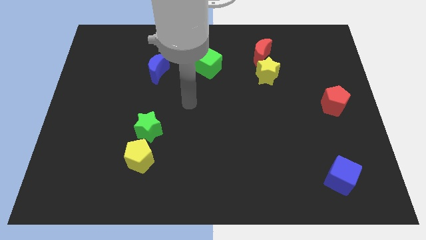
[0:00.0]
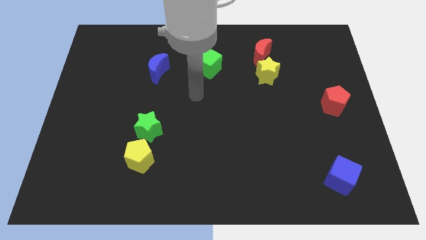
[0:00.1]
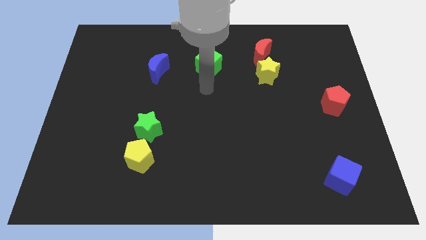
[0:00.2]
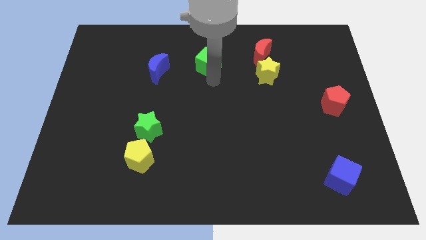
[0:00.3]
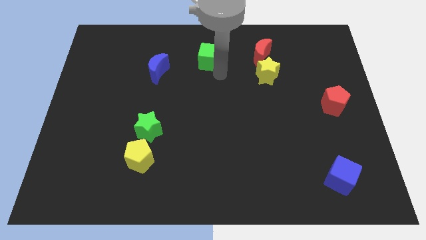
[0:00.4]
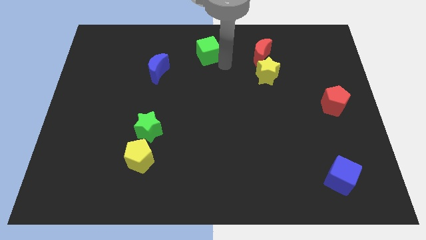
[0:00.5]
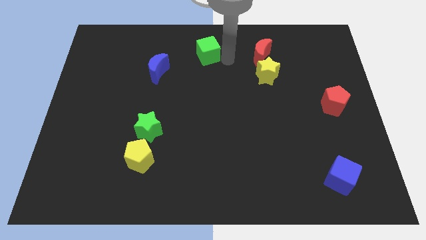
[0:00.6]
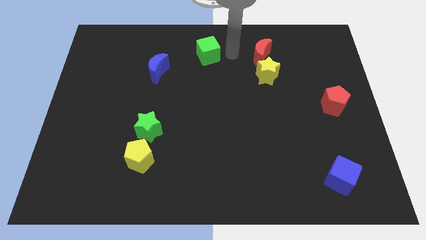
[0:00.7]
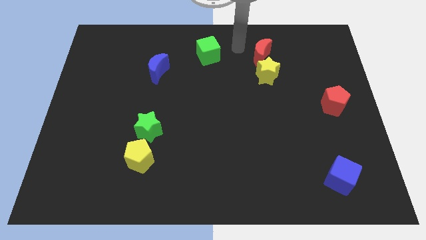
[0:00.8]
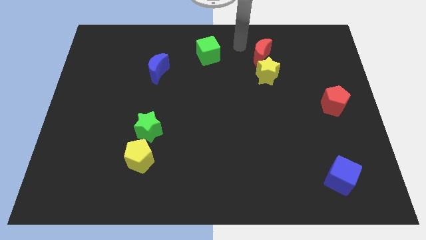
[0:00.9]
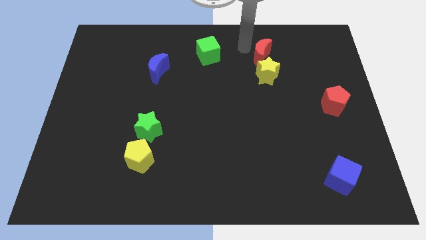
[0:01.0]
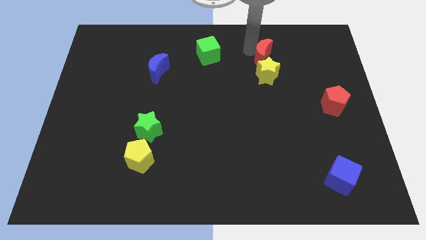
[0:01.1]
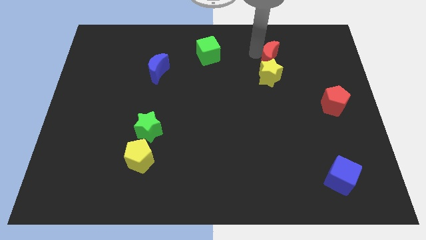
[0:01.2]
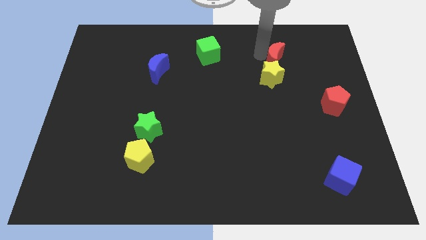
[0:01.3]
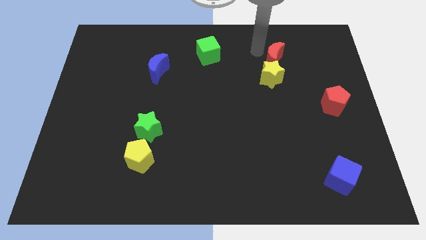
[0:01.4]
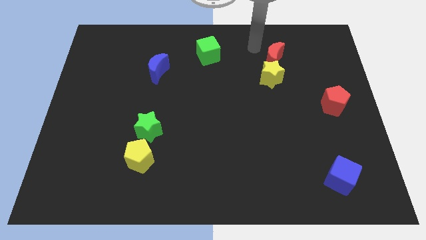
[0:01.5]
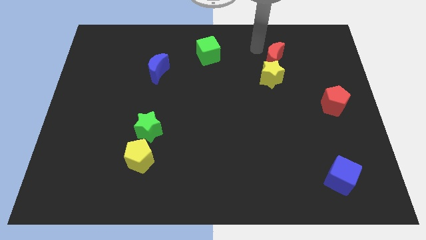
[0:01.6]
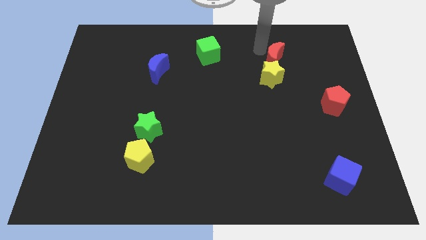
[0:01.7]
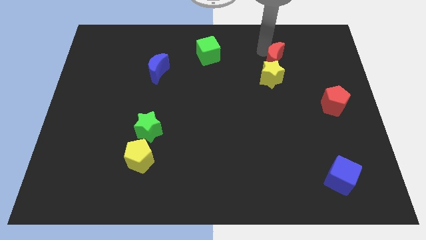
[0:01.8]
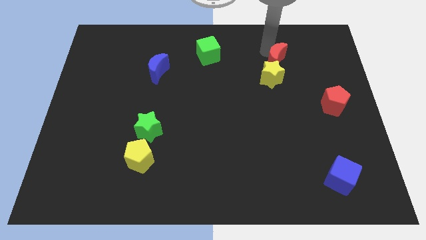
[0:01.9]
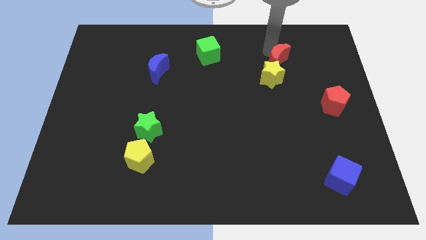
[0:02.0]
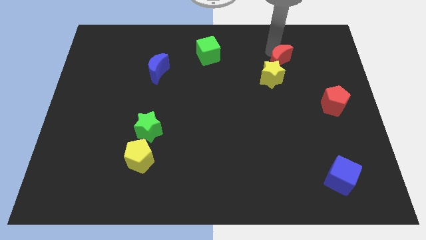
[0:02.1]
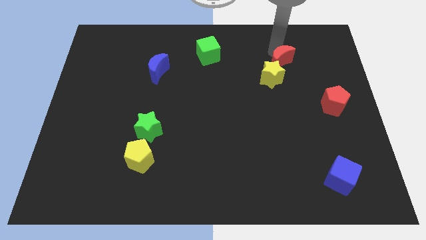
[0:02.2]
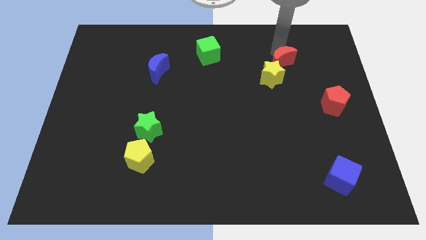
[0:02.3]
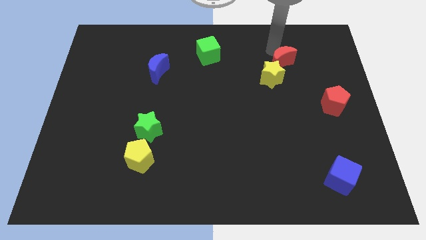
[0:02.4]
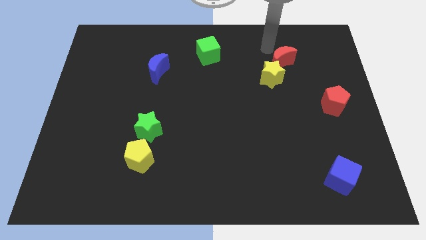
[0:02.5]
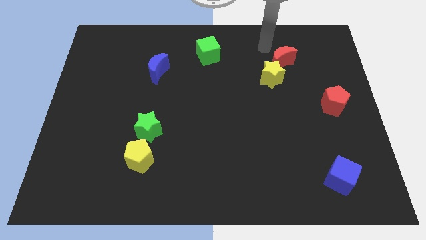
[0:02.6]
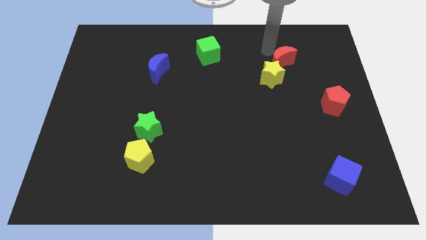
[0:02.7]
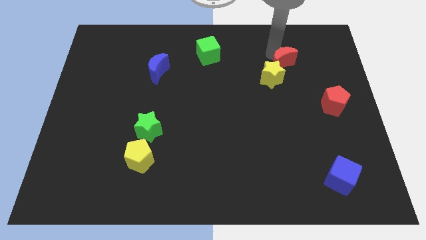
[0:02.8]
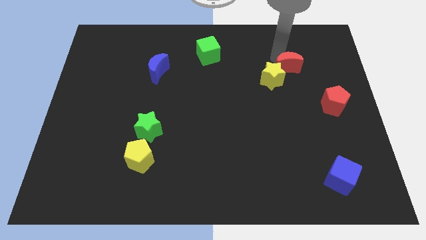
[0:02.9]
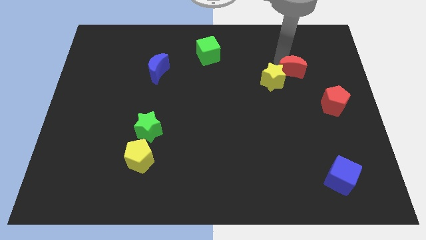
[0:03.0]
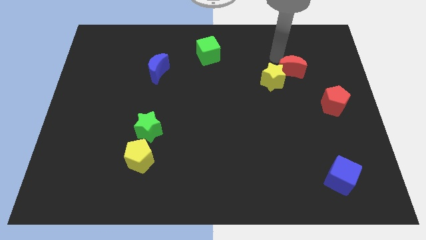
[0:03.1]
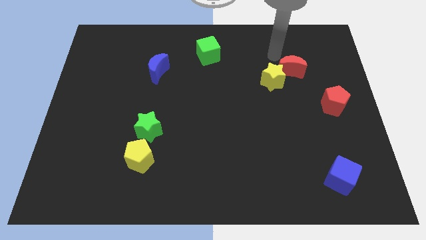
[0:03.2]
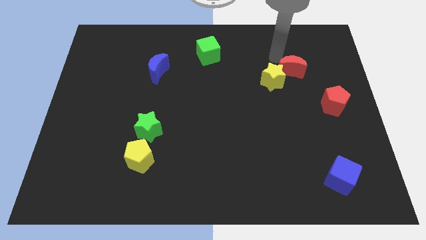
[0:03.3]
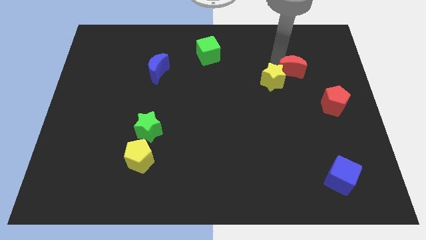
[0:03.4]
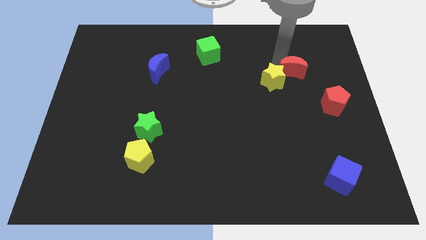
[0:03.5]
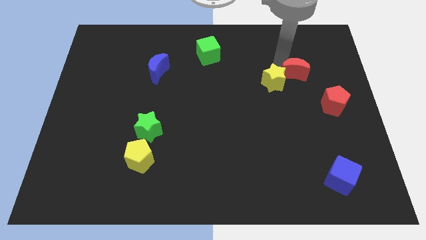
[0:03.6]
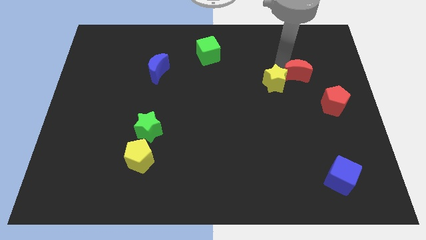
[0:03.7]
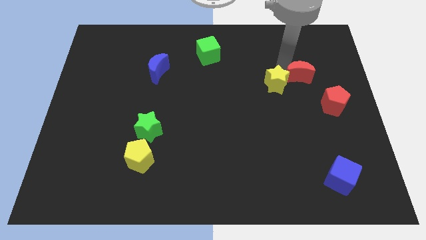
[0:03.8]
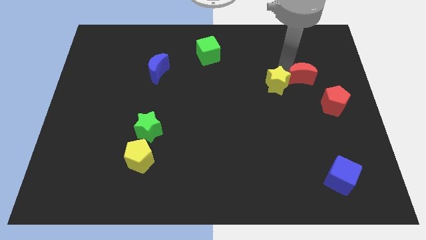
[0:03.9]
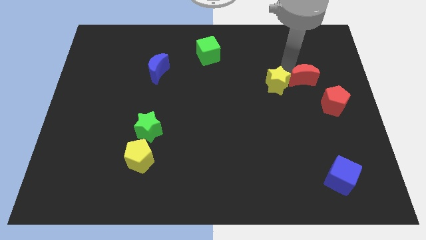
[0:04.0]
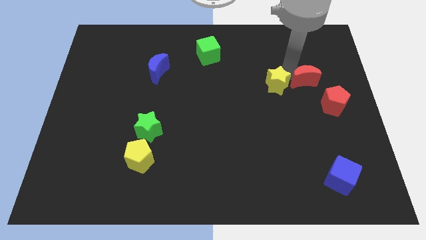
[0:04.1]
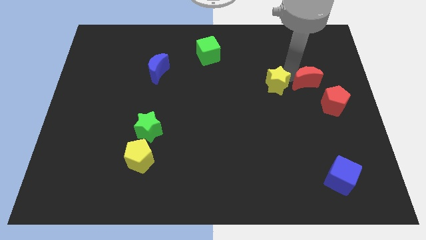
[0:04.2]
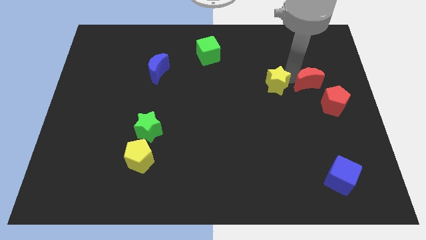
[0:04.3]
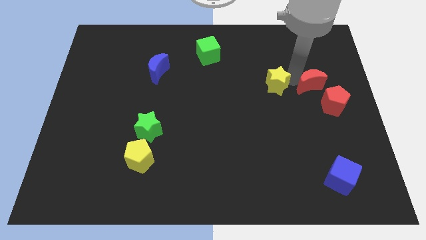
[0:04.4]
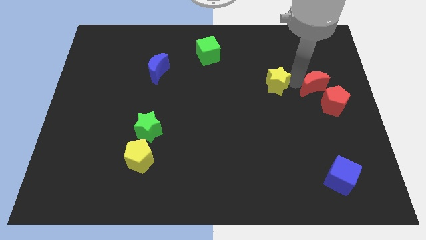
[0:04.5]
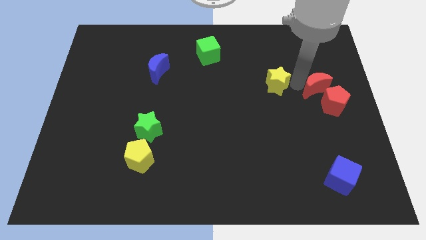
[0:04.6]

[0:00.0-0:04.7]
move the red moon towards the red pentagon

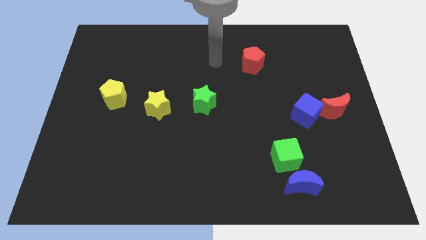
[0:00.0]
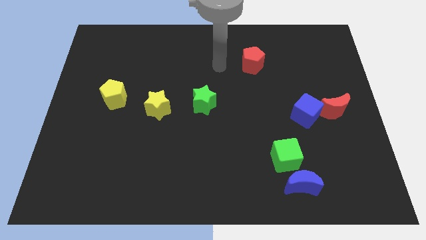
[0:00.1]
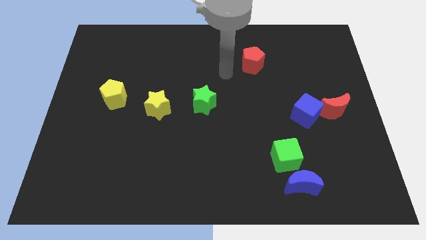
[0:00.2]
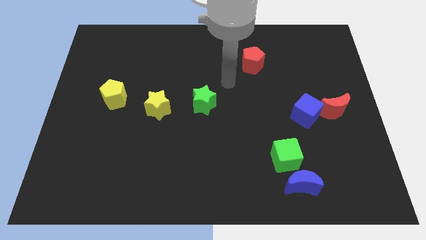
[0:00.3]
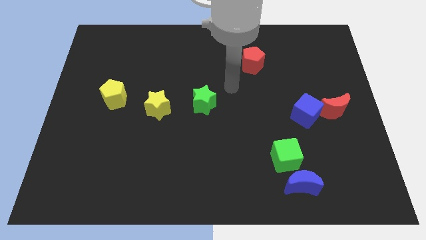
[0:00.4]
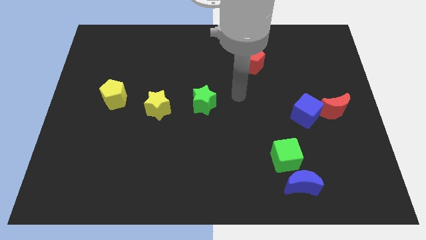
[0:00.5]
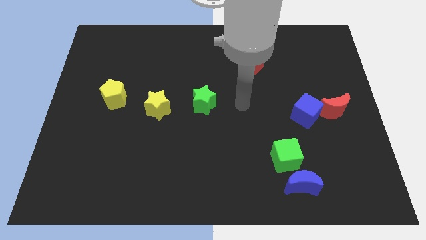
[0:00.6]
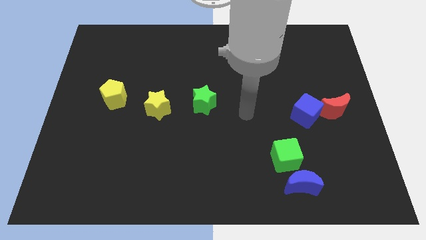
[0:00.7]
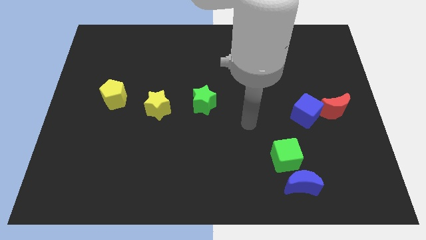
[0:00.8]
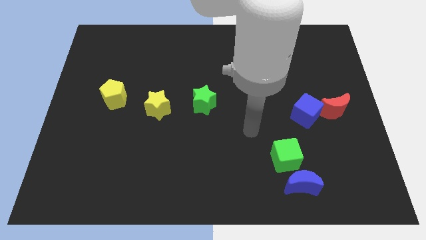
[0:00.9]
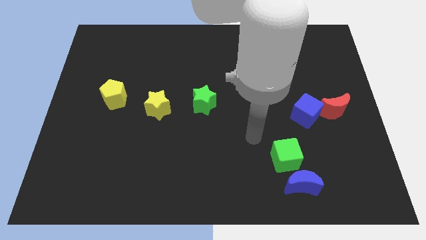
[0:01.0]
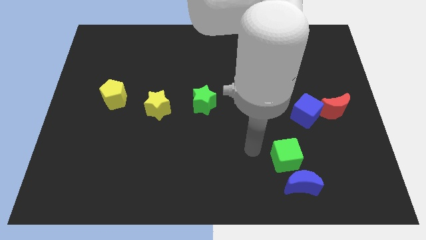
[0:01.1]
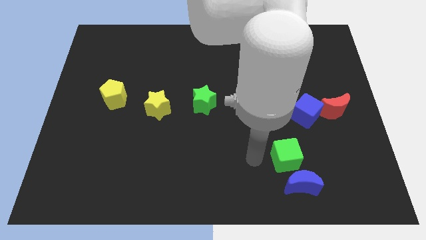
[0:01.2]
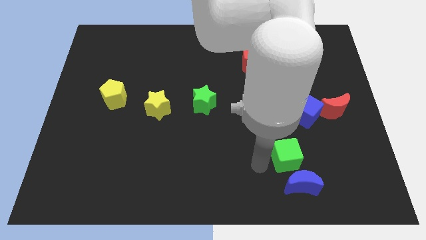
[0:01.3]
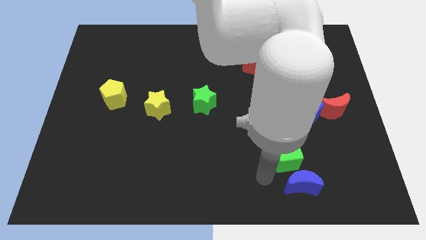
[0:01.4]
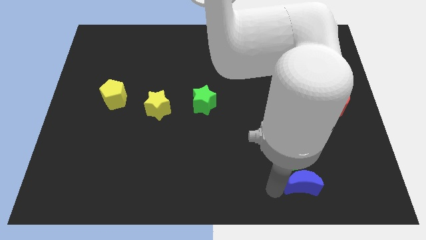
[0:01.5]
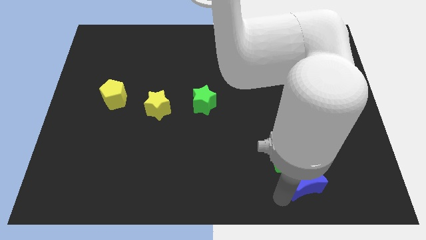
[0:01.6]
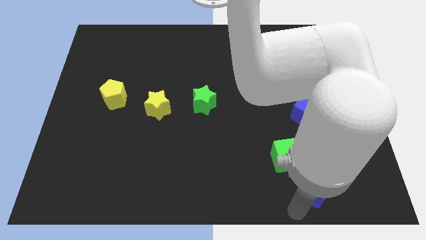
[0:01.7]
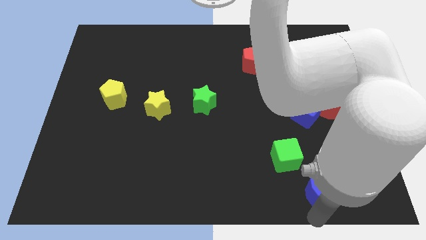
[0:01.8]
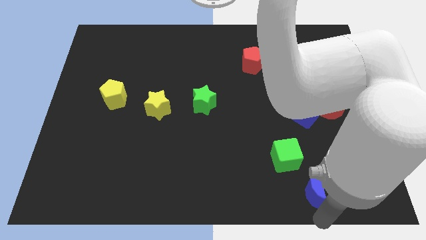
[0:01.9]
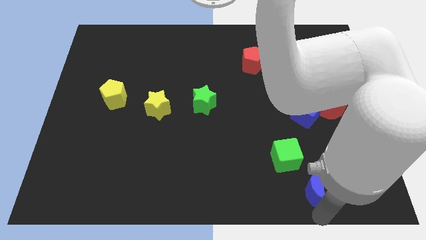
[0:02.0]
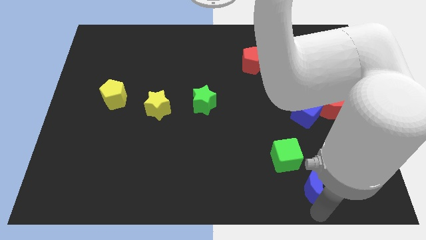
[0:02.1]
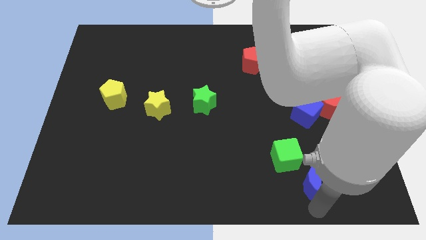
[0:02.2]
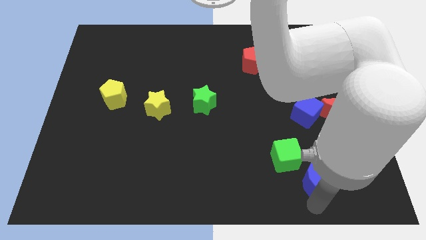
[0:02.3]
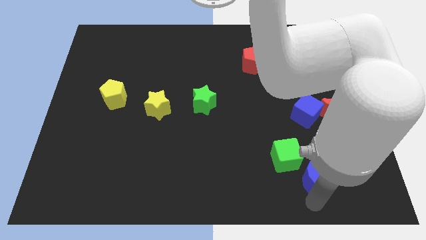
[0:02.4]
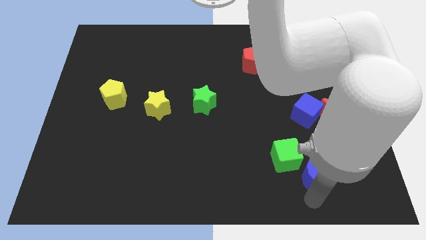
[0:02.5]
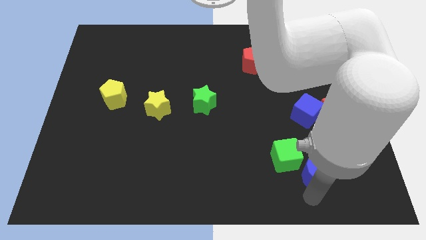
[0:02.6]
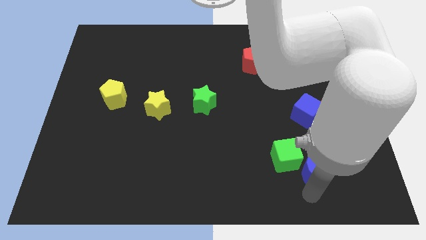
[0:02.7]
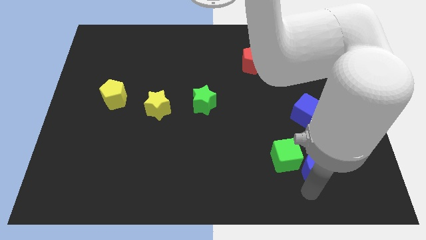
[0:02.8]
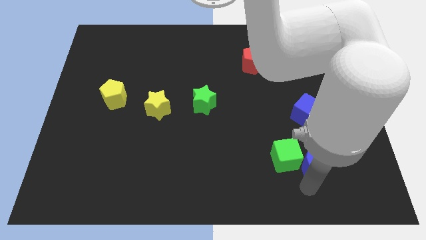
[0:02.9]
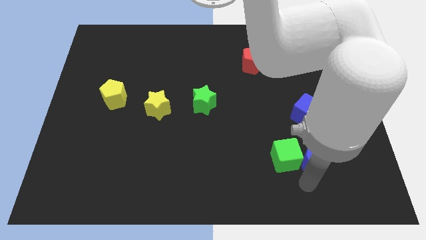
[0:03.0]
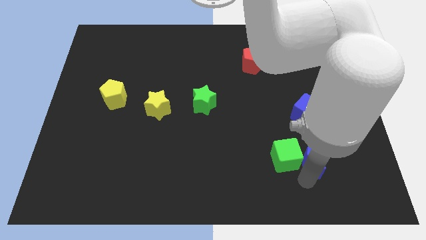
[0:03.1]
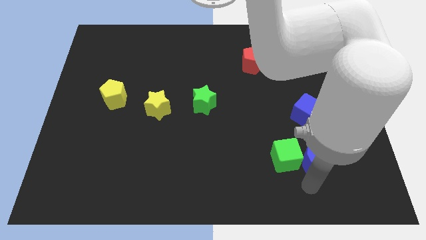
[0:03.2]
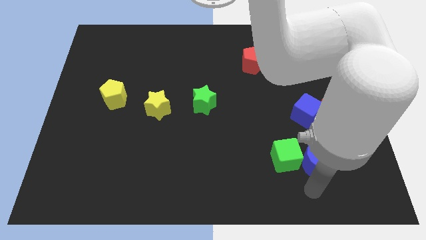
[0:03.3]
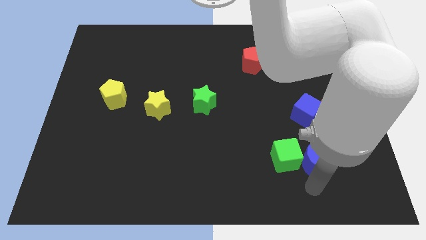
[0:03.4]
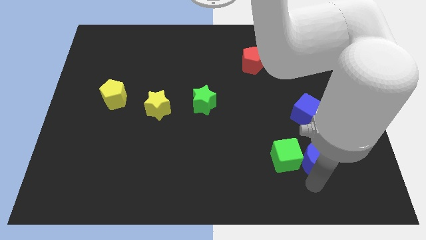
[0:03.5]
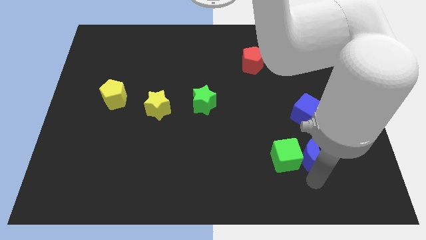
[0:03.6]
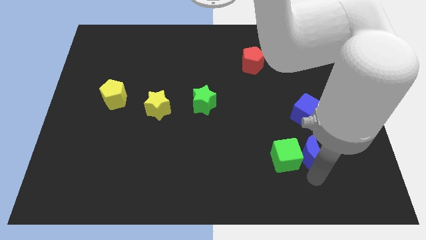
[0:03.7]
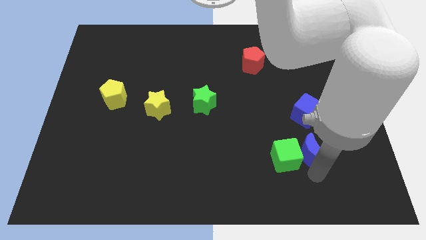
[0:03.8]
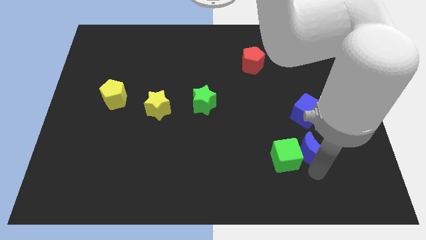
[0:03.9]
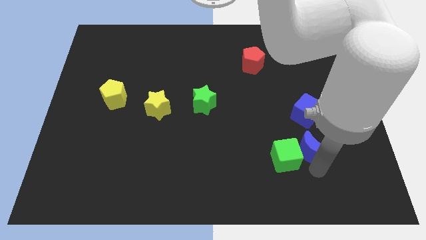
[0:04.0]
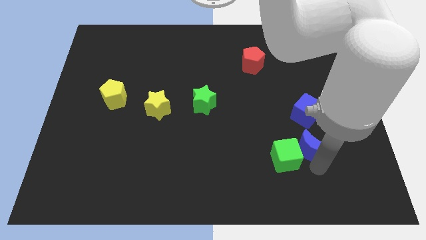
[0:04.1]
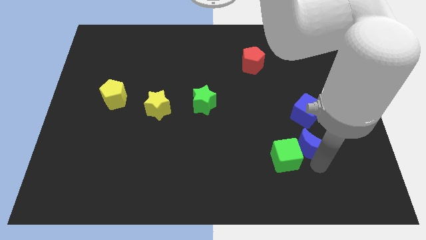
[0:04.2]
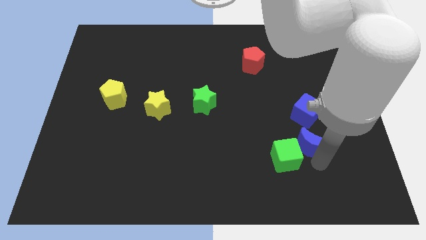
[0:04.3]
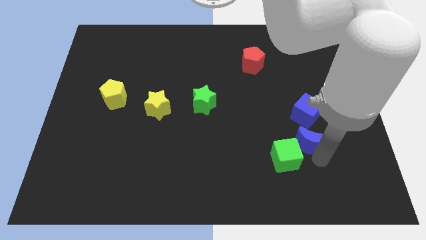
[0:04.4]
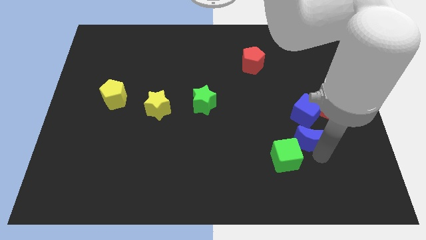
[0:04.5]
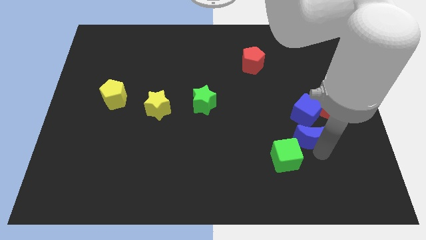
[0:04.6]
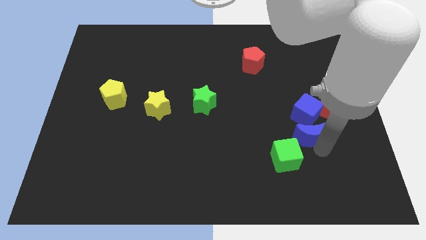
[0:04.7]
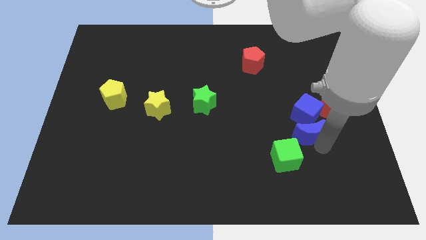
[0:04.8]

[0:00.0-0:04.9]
put the blue moon next to the blue cube
